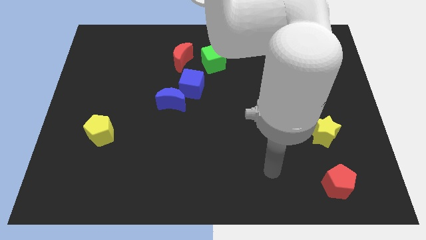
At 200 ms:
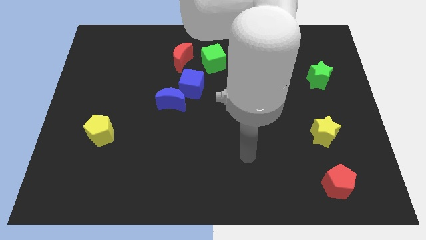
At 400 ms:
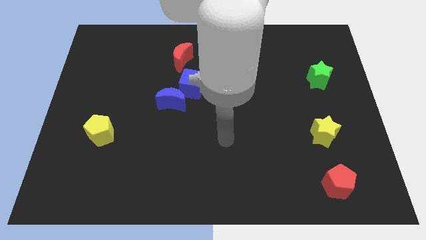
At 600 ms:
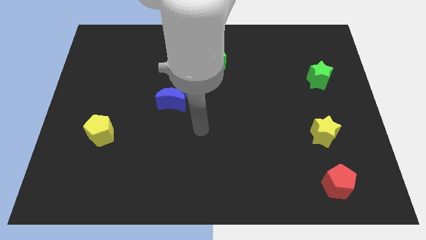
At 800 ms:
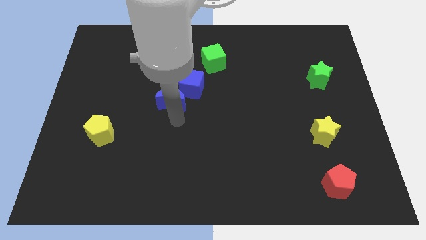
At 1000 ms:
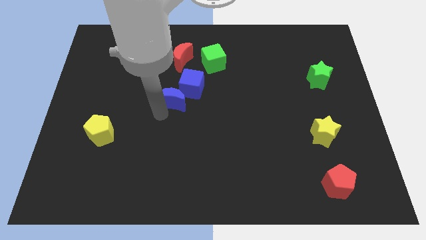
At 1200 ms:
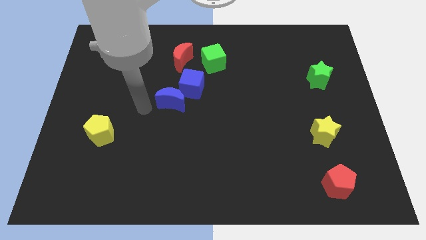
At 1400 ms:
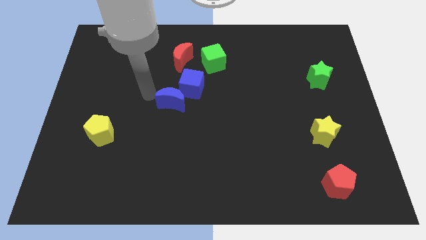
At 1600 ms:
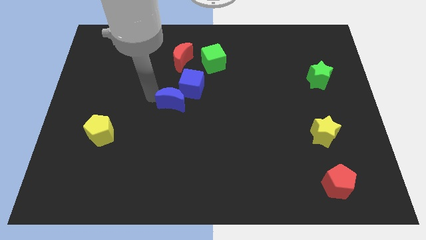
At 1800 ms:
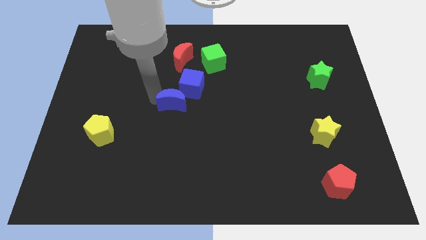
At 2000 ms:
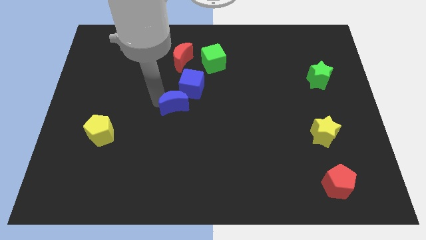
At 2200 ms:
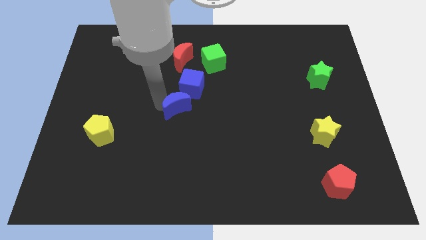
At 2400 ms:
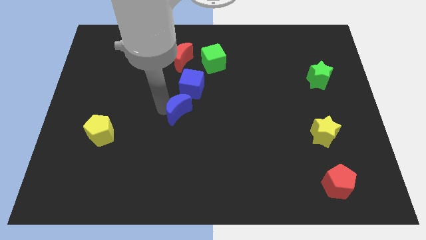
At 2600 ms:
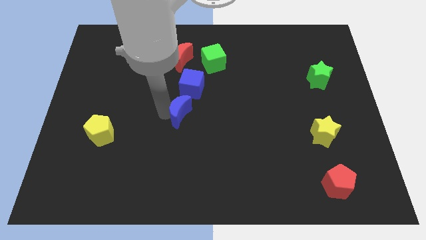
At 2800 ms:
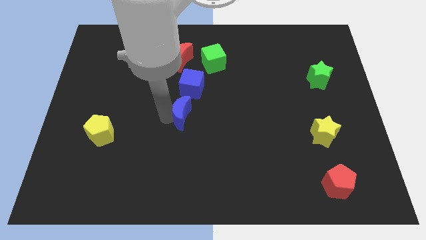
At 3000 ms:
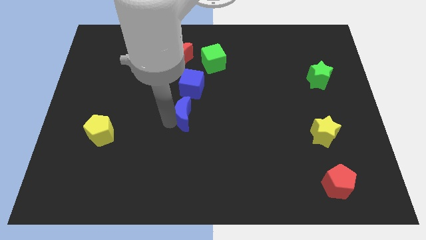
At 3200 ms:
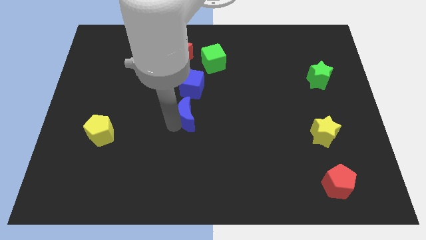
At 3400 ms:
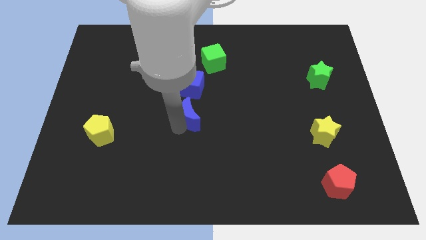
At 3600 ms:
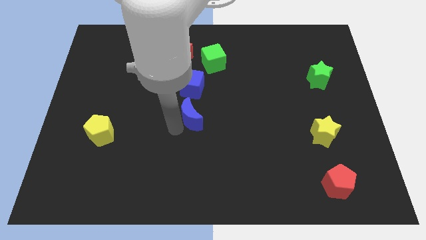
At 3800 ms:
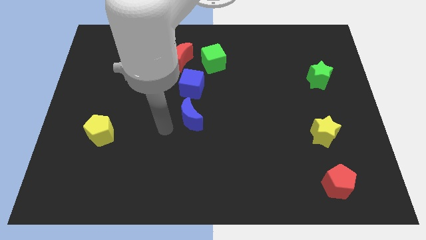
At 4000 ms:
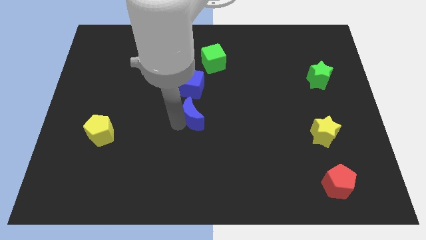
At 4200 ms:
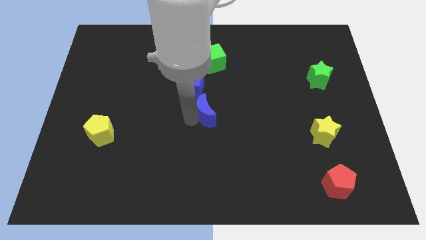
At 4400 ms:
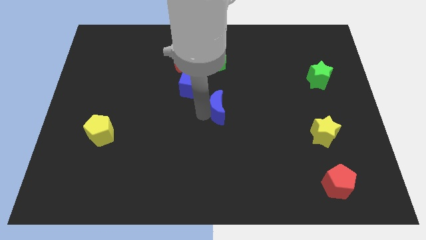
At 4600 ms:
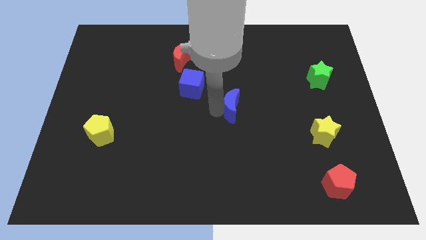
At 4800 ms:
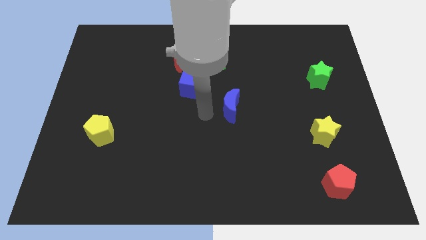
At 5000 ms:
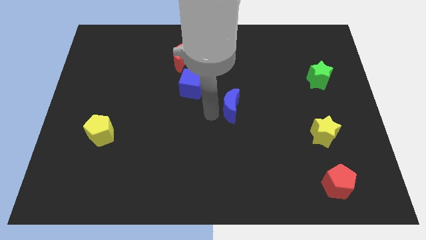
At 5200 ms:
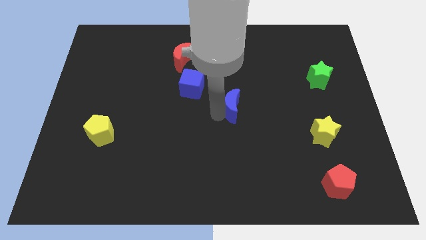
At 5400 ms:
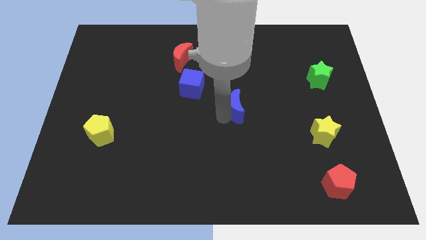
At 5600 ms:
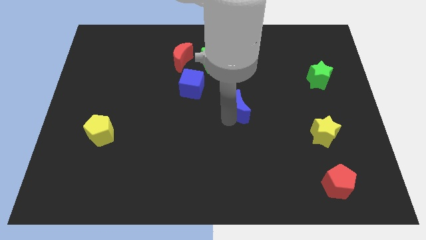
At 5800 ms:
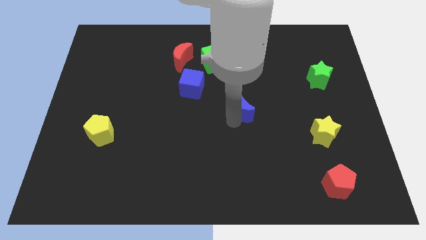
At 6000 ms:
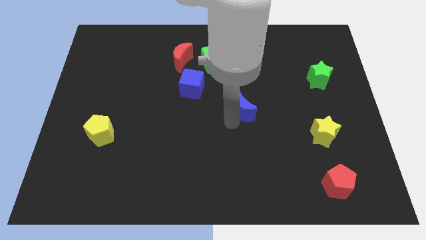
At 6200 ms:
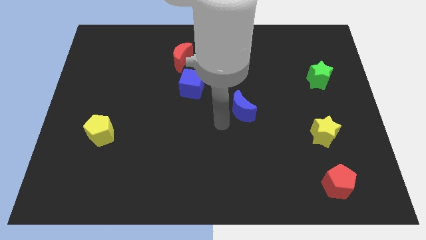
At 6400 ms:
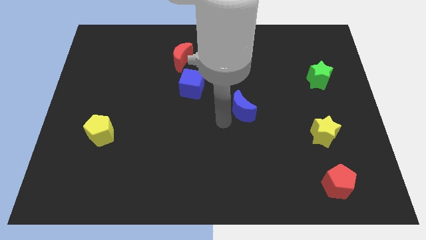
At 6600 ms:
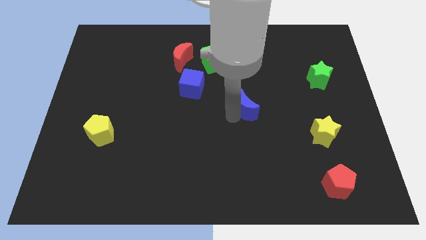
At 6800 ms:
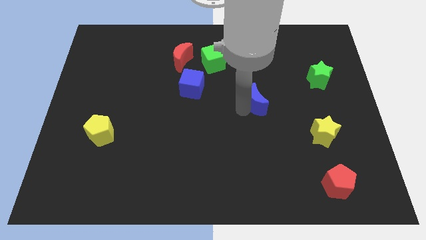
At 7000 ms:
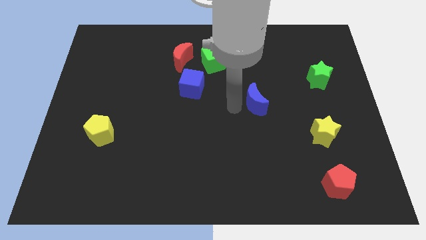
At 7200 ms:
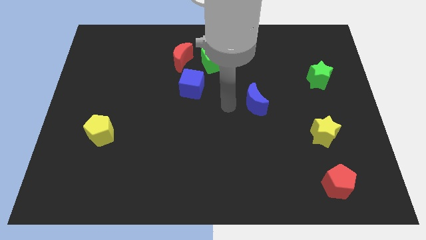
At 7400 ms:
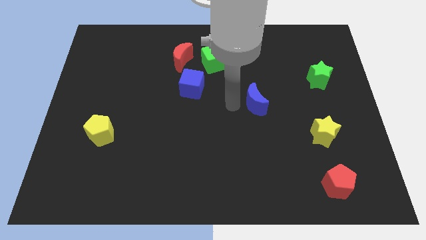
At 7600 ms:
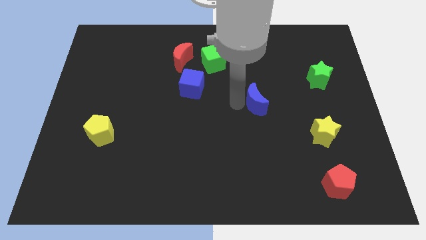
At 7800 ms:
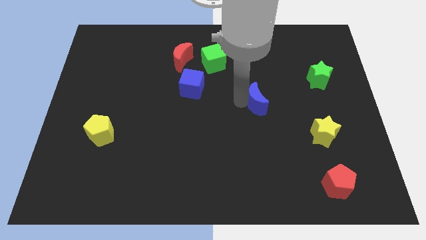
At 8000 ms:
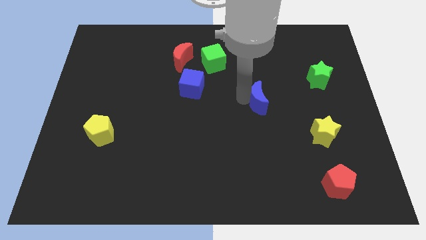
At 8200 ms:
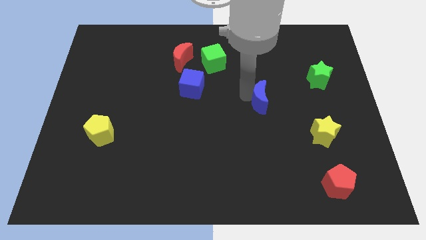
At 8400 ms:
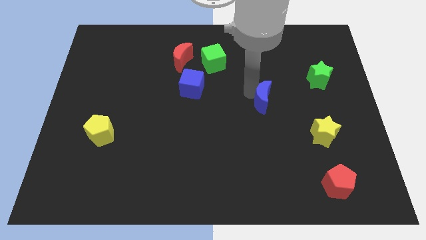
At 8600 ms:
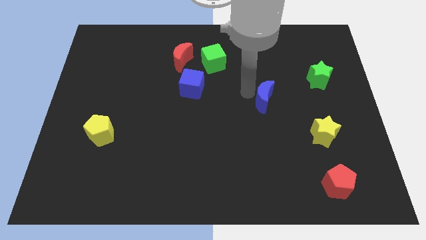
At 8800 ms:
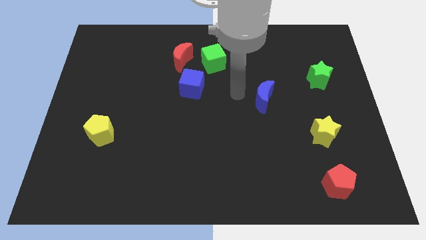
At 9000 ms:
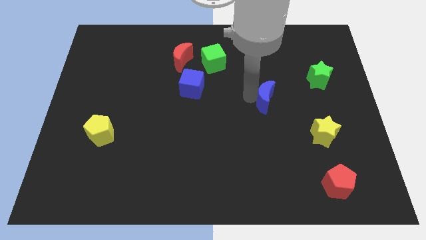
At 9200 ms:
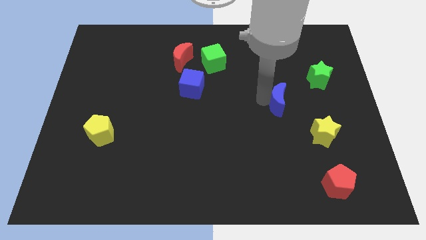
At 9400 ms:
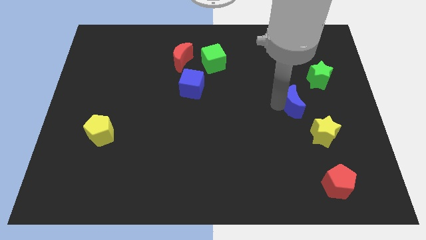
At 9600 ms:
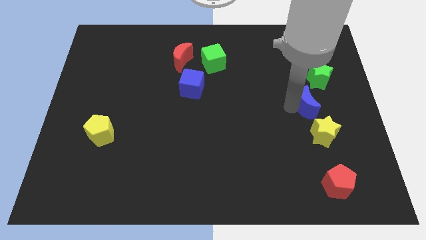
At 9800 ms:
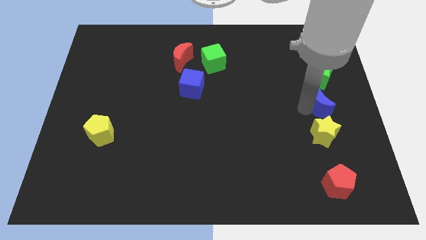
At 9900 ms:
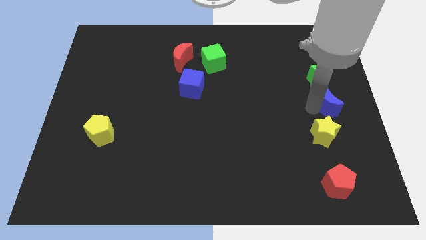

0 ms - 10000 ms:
push the blue moon to the right side

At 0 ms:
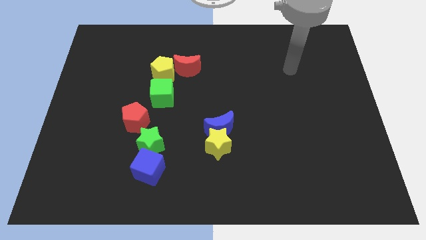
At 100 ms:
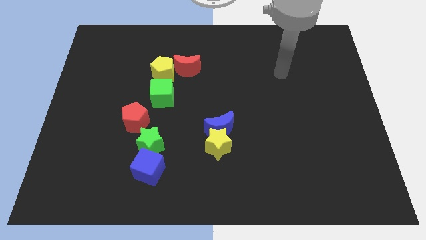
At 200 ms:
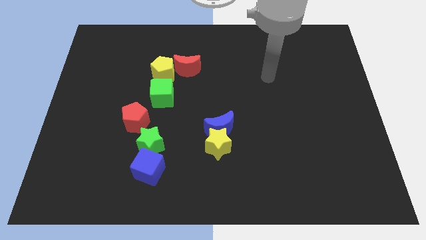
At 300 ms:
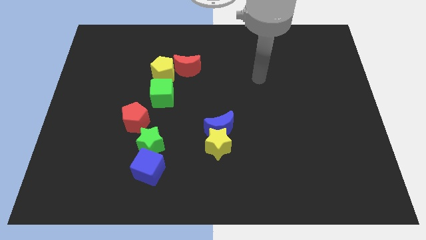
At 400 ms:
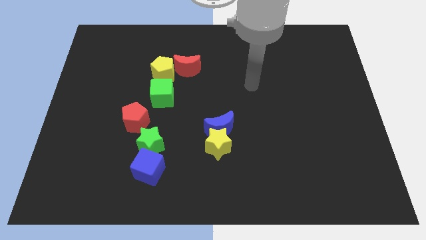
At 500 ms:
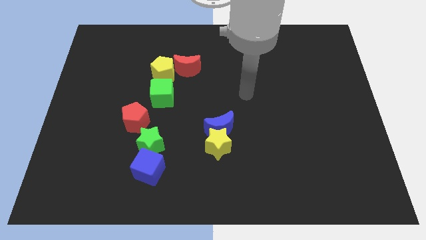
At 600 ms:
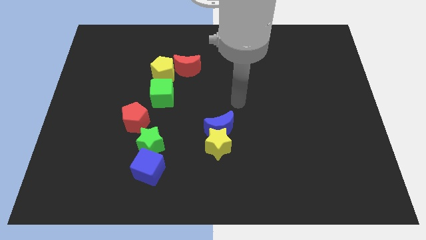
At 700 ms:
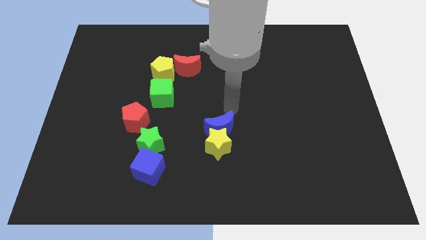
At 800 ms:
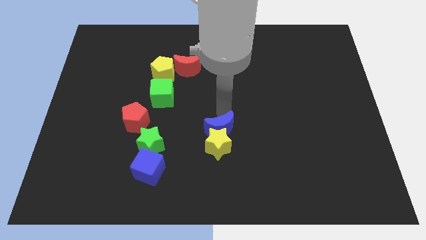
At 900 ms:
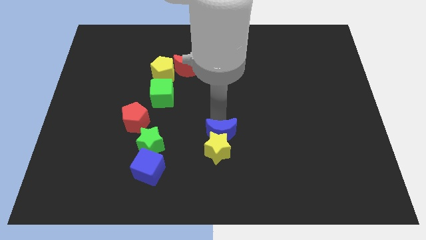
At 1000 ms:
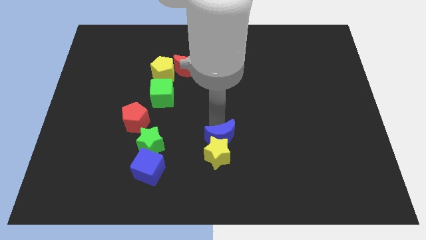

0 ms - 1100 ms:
slide the yellow star to the bottom side
